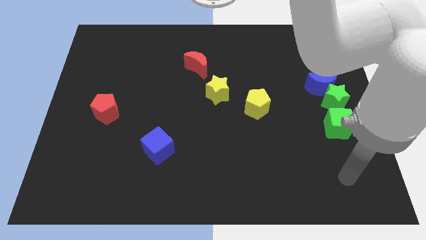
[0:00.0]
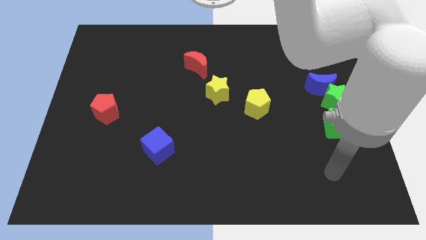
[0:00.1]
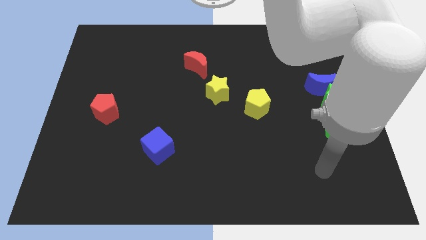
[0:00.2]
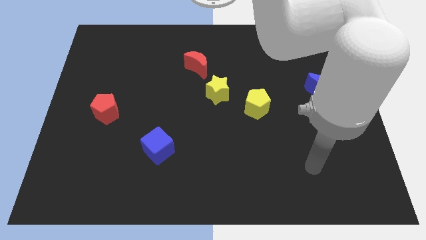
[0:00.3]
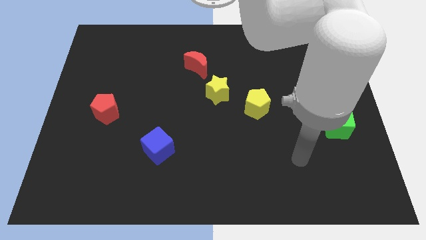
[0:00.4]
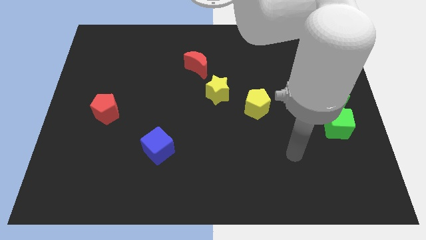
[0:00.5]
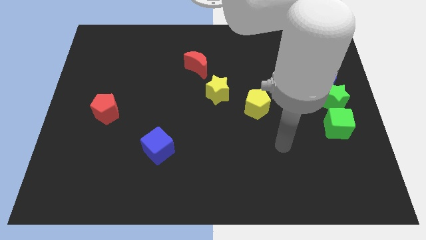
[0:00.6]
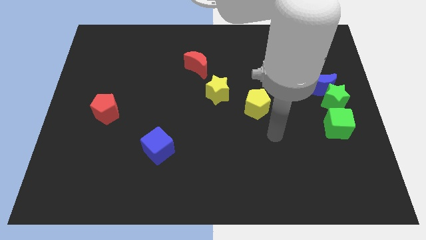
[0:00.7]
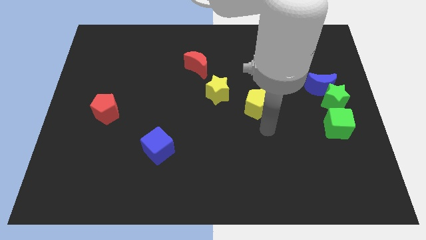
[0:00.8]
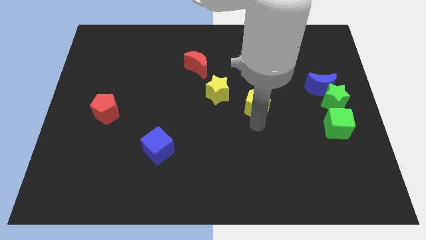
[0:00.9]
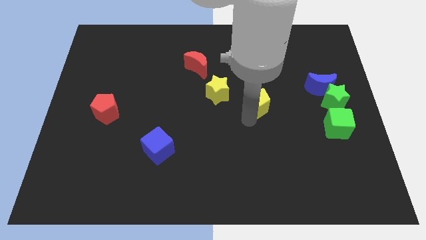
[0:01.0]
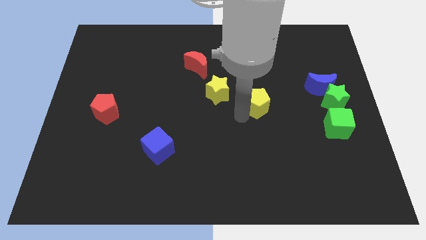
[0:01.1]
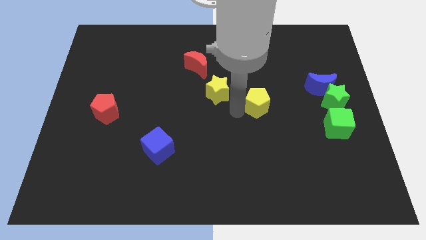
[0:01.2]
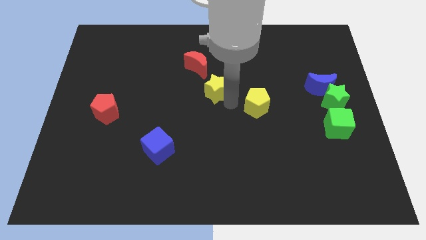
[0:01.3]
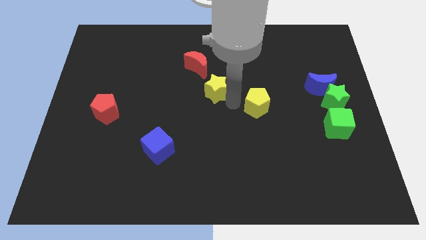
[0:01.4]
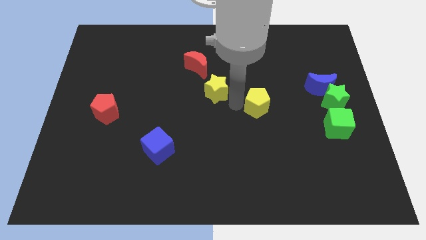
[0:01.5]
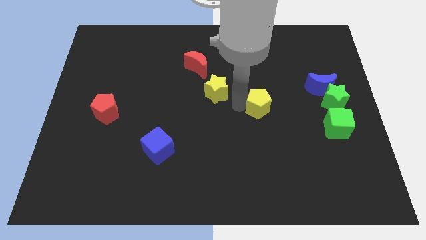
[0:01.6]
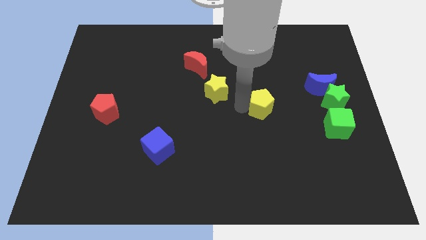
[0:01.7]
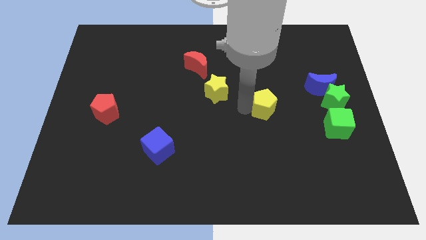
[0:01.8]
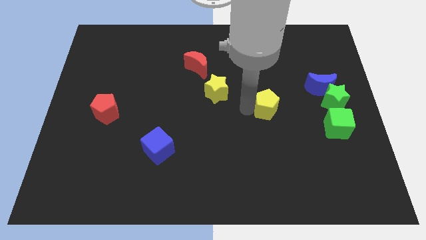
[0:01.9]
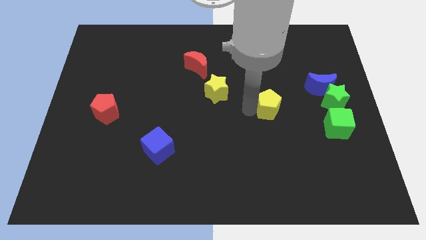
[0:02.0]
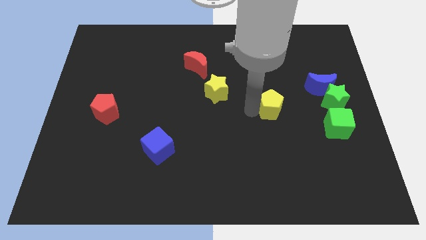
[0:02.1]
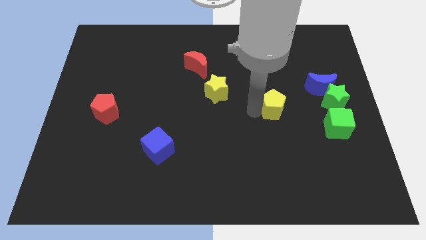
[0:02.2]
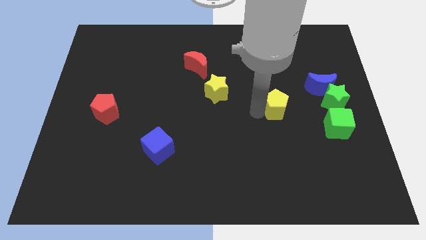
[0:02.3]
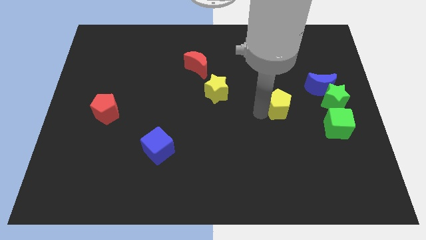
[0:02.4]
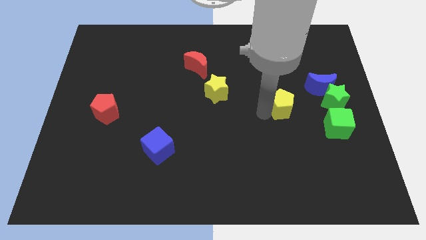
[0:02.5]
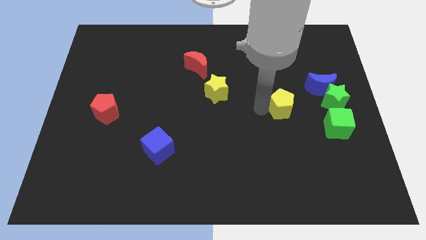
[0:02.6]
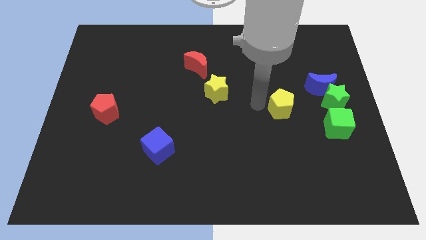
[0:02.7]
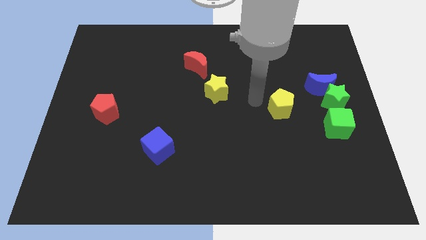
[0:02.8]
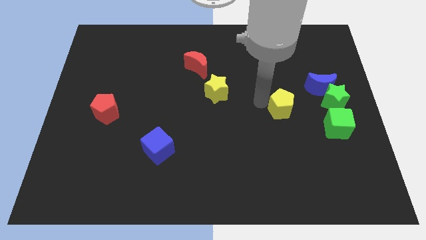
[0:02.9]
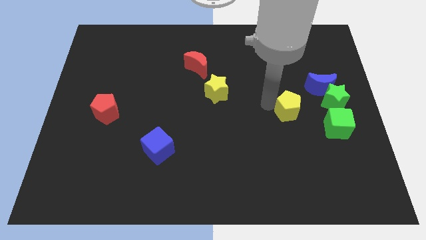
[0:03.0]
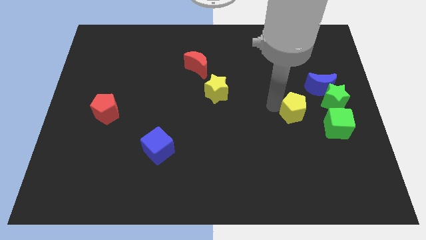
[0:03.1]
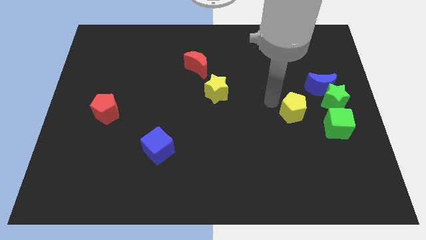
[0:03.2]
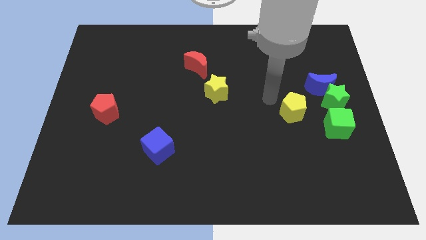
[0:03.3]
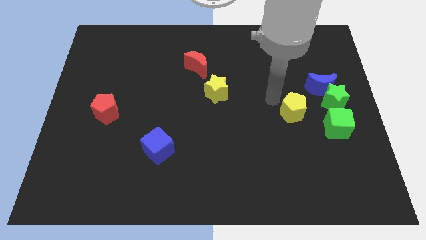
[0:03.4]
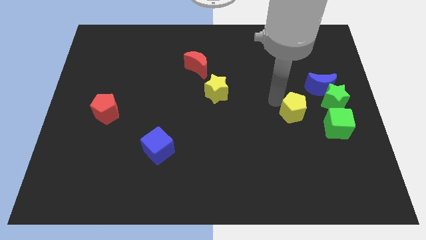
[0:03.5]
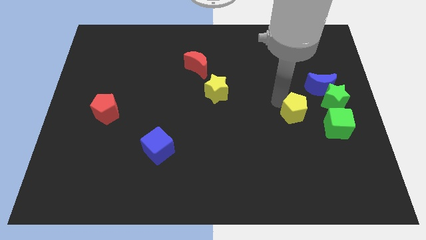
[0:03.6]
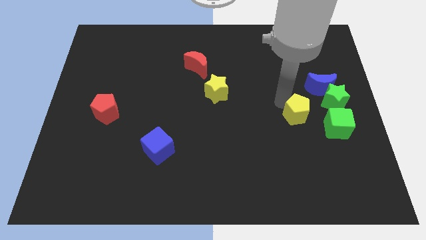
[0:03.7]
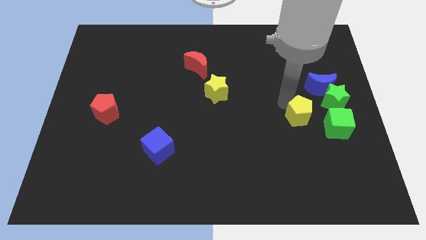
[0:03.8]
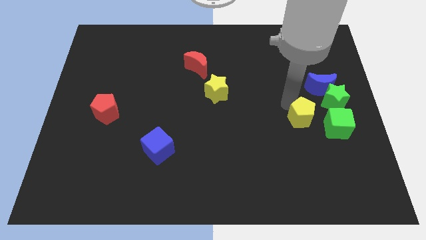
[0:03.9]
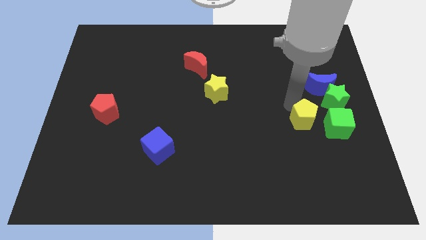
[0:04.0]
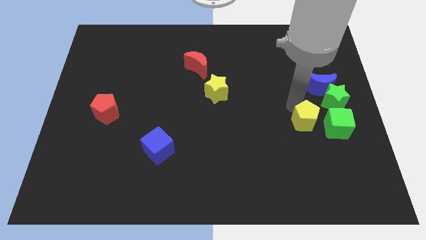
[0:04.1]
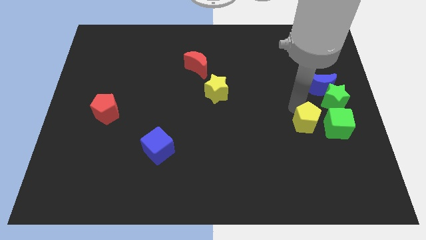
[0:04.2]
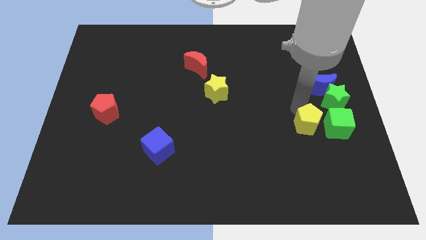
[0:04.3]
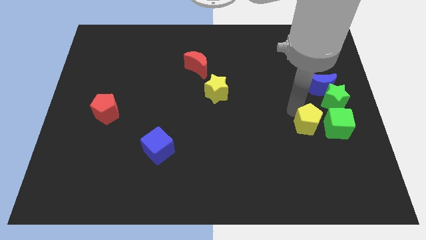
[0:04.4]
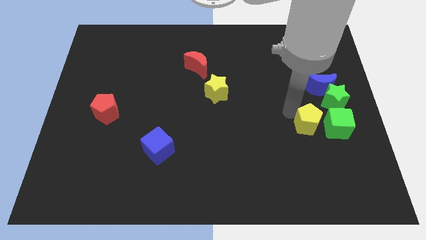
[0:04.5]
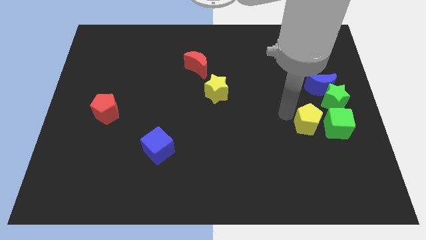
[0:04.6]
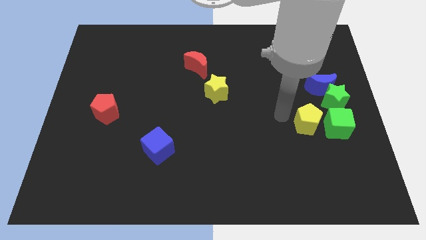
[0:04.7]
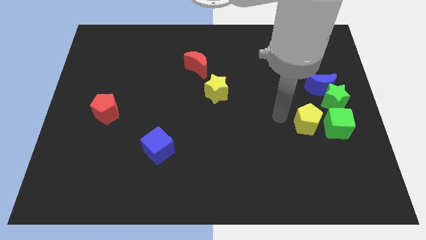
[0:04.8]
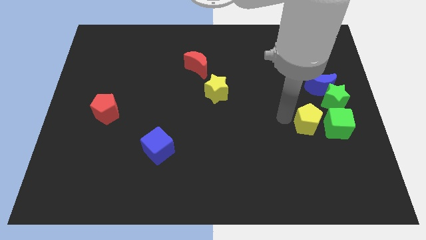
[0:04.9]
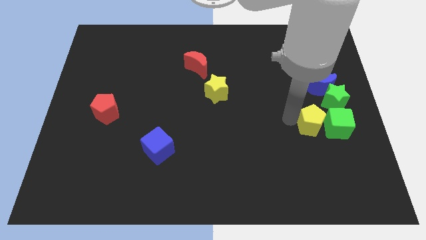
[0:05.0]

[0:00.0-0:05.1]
push the yellow pentagon close to the green cube

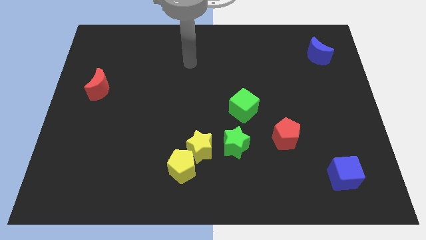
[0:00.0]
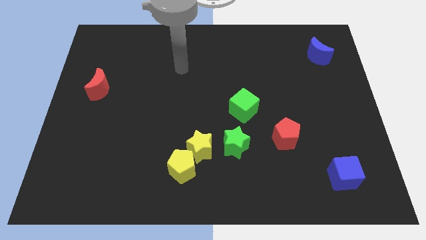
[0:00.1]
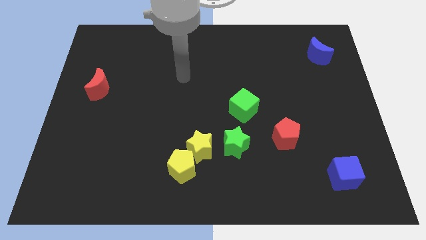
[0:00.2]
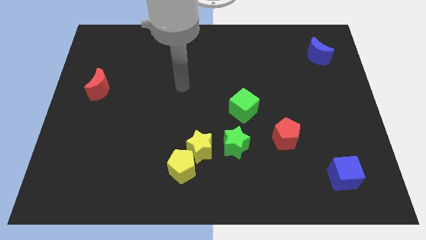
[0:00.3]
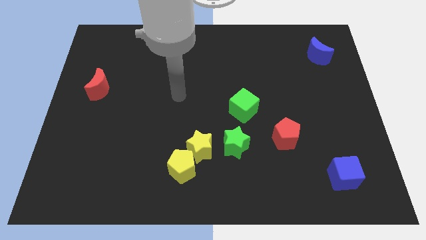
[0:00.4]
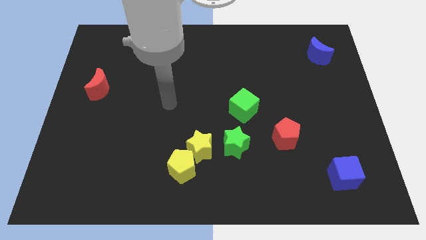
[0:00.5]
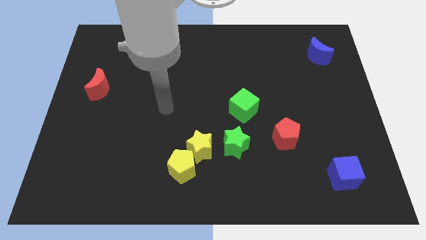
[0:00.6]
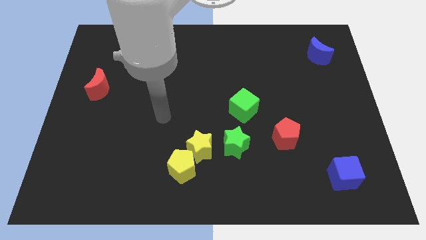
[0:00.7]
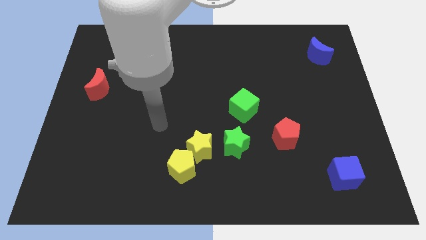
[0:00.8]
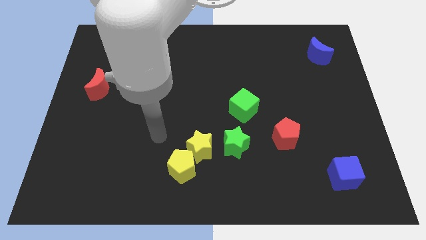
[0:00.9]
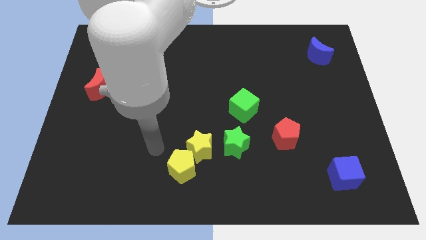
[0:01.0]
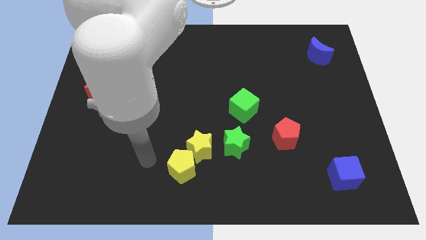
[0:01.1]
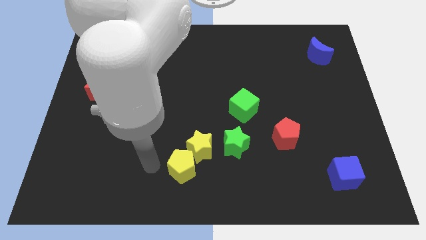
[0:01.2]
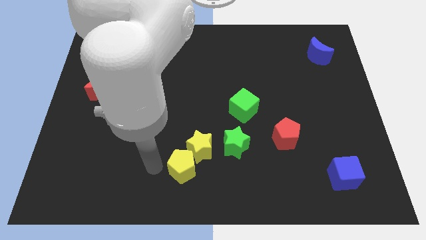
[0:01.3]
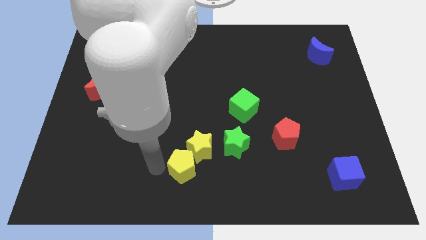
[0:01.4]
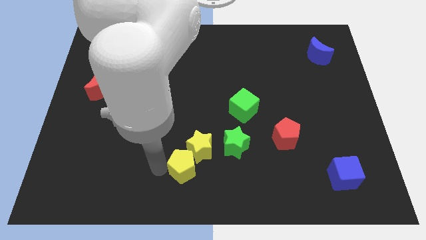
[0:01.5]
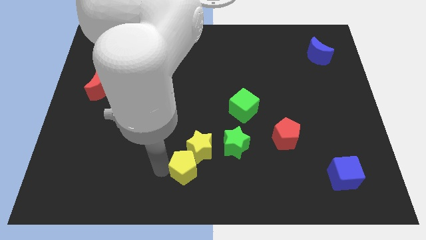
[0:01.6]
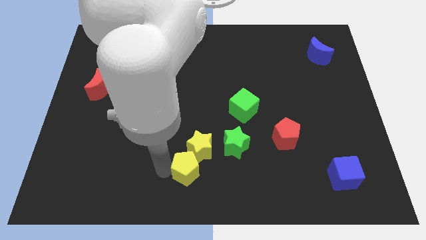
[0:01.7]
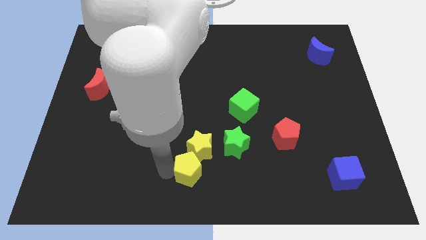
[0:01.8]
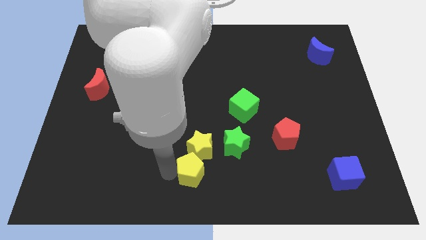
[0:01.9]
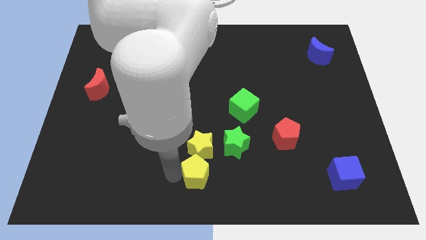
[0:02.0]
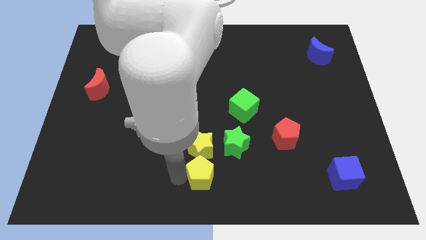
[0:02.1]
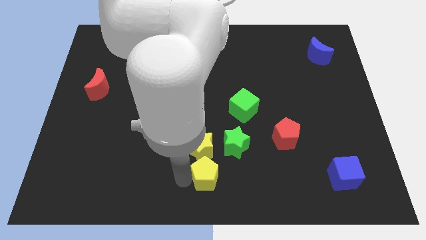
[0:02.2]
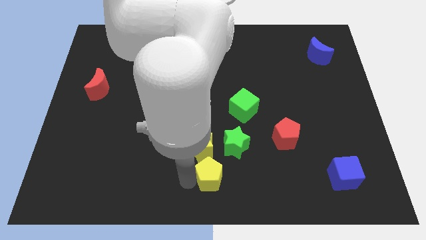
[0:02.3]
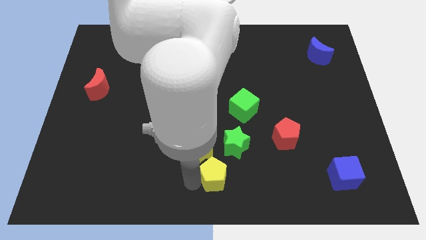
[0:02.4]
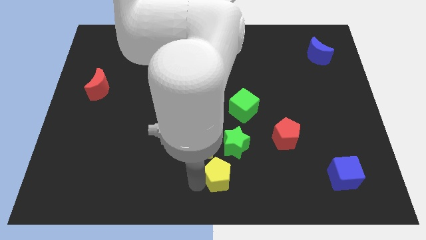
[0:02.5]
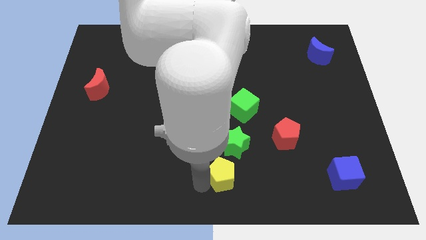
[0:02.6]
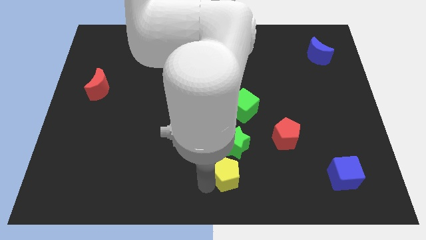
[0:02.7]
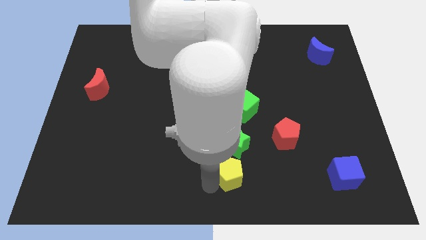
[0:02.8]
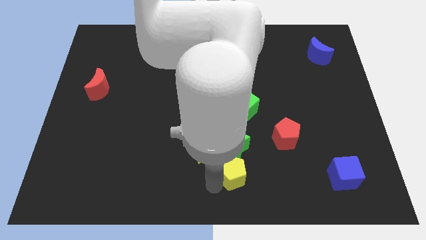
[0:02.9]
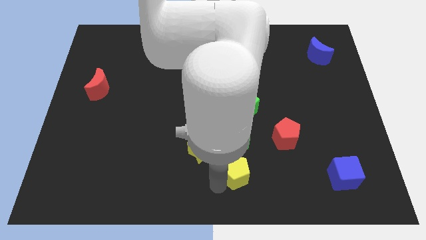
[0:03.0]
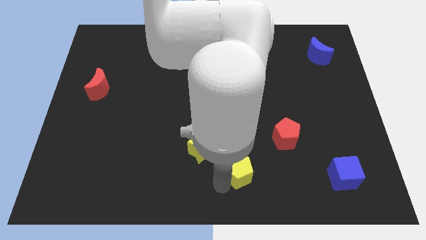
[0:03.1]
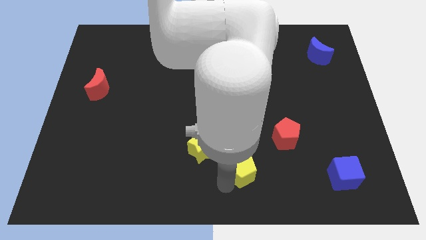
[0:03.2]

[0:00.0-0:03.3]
slide the yellow pentagon next to the green star
